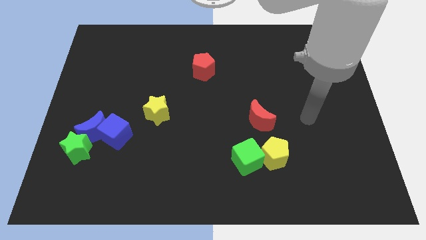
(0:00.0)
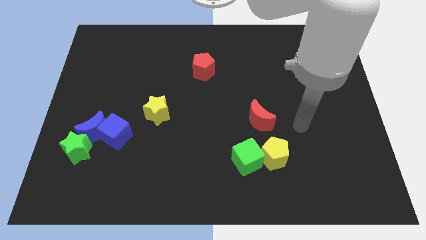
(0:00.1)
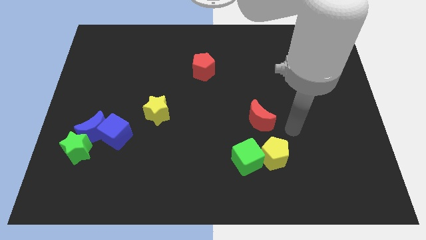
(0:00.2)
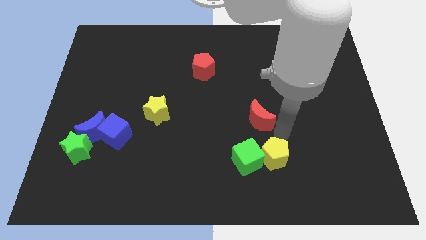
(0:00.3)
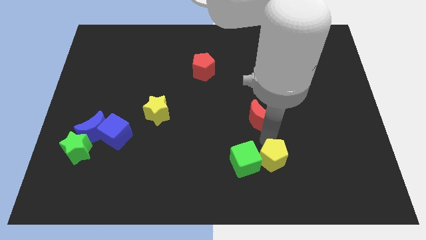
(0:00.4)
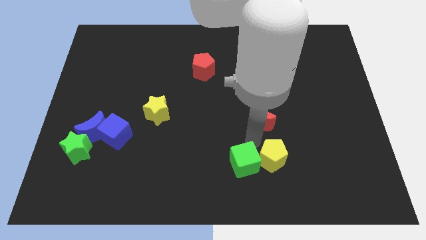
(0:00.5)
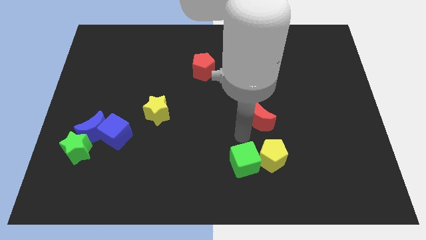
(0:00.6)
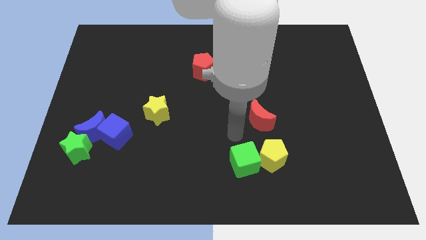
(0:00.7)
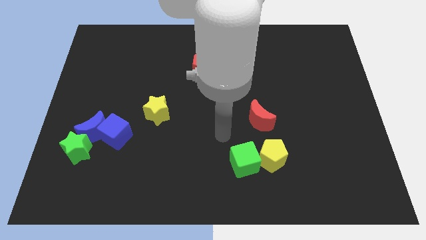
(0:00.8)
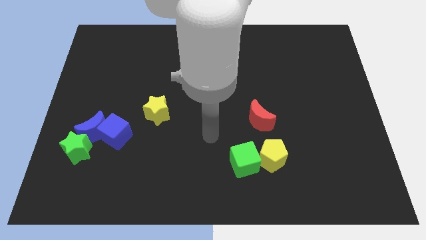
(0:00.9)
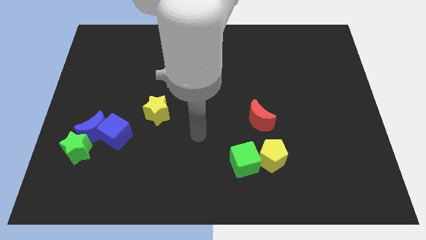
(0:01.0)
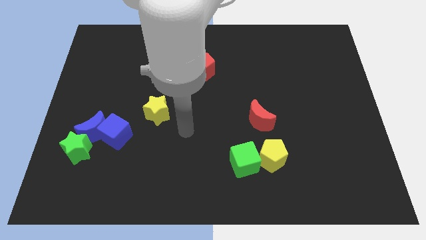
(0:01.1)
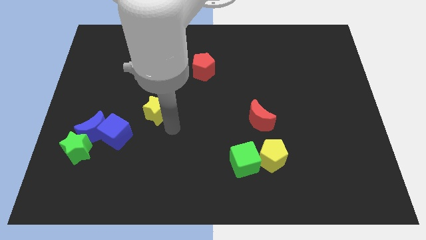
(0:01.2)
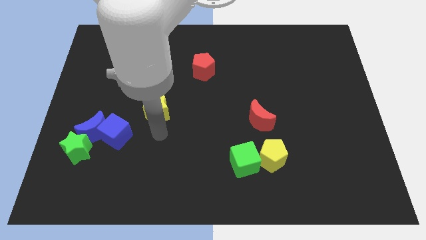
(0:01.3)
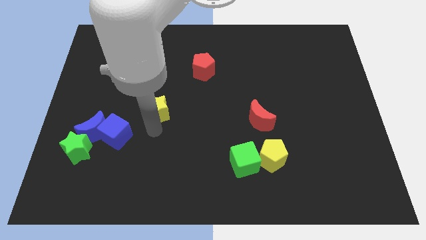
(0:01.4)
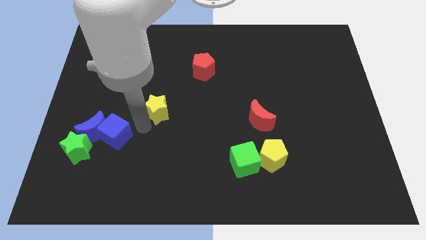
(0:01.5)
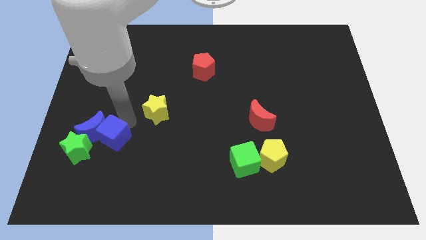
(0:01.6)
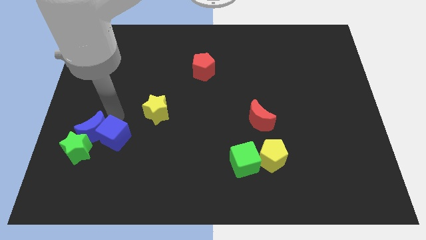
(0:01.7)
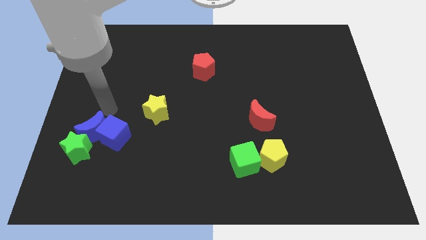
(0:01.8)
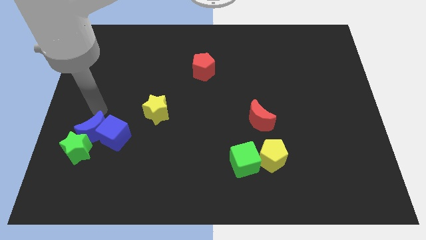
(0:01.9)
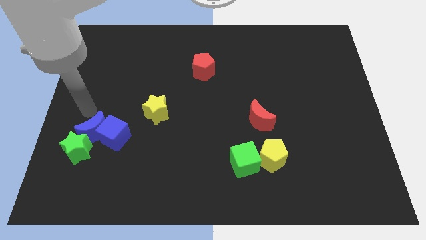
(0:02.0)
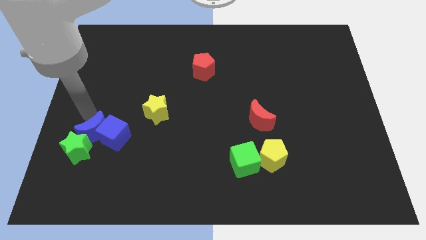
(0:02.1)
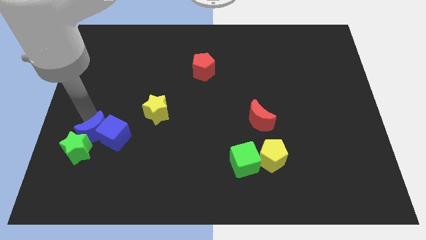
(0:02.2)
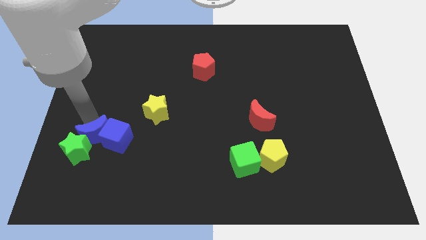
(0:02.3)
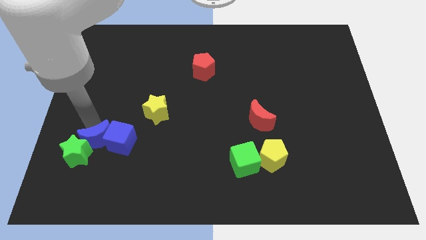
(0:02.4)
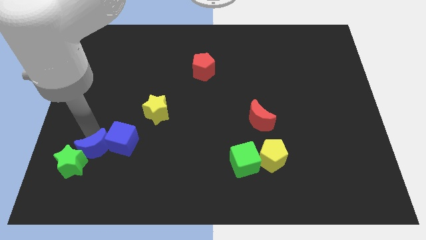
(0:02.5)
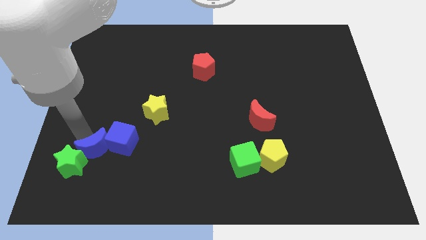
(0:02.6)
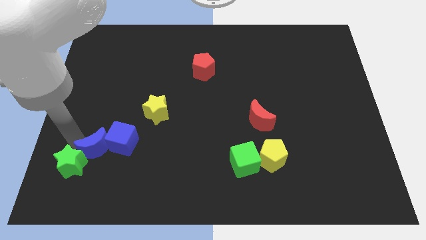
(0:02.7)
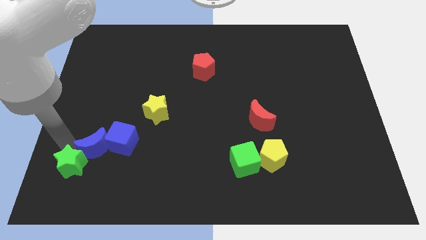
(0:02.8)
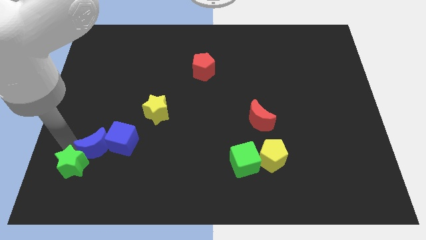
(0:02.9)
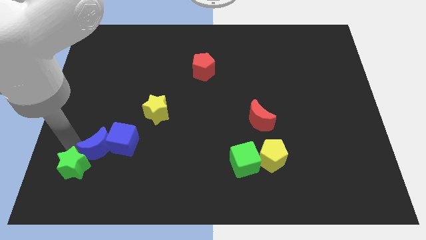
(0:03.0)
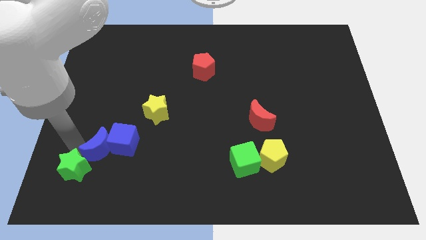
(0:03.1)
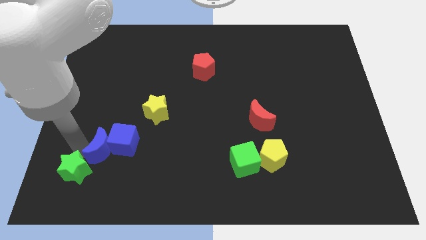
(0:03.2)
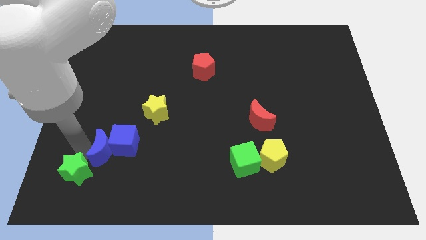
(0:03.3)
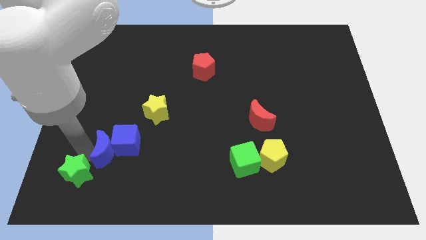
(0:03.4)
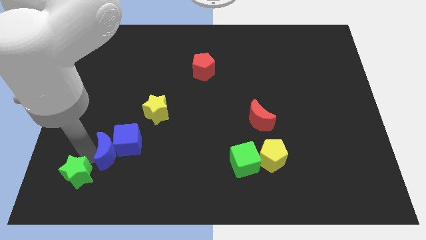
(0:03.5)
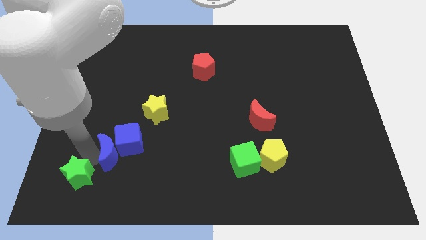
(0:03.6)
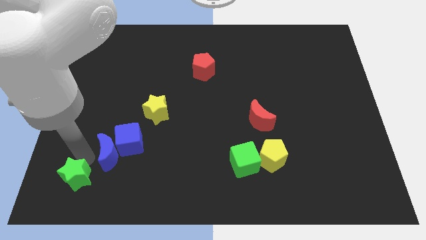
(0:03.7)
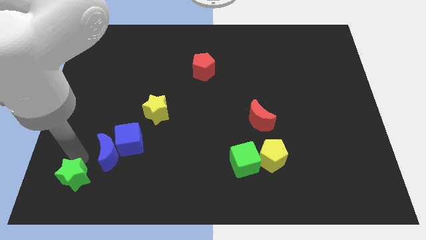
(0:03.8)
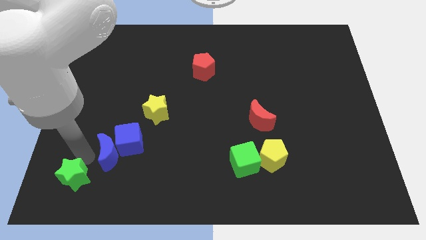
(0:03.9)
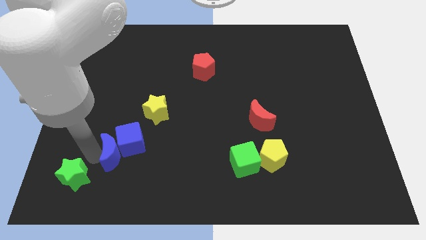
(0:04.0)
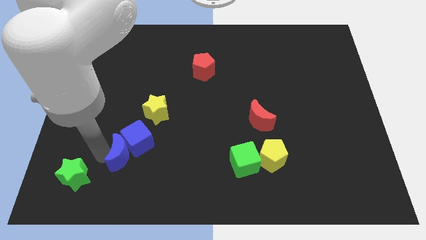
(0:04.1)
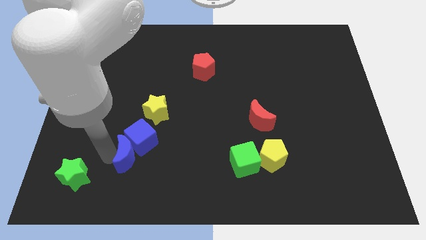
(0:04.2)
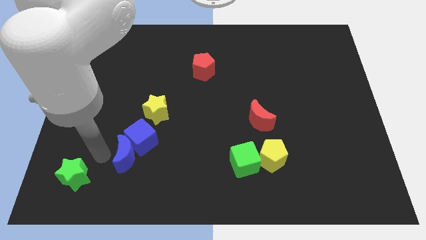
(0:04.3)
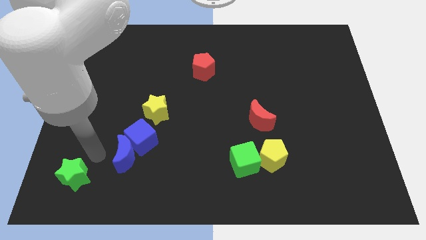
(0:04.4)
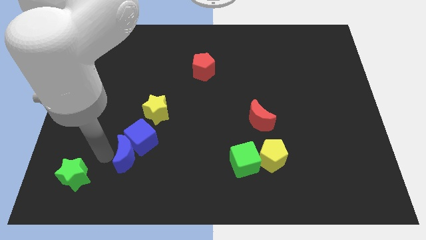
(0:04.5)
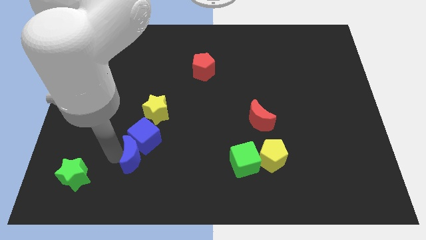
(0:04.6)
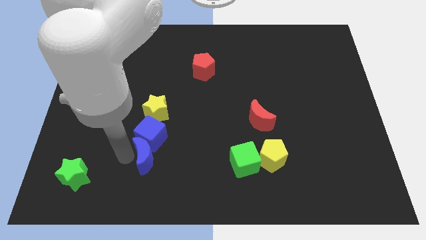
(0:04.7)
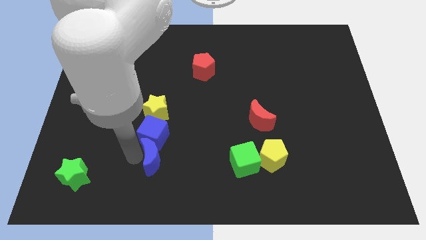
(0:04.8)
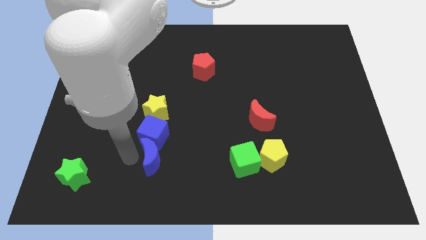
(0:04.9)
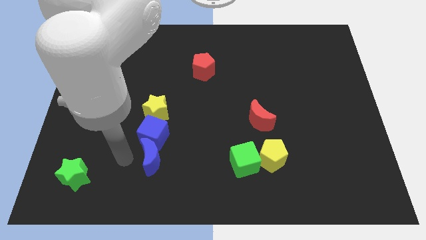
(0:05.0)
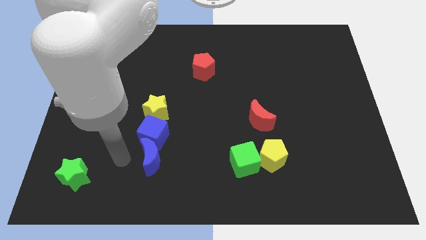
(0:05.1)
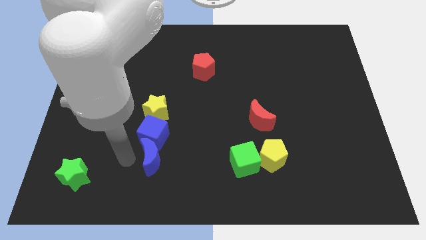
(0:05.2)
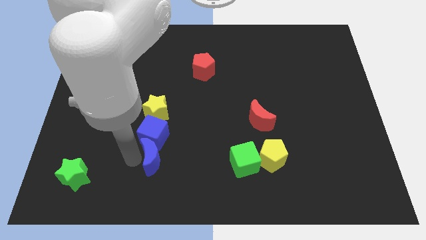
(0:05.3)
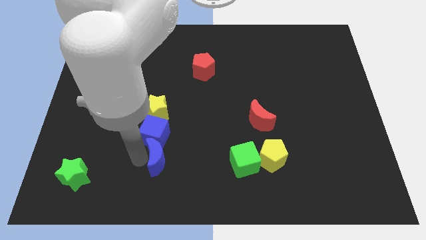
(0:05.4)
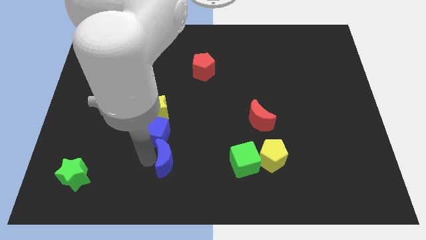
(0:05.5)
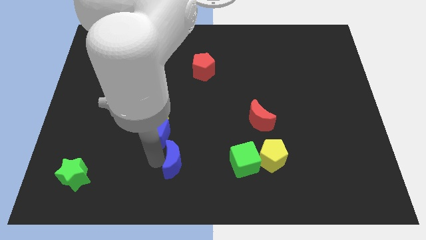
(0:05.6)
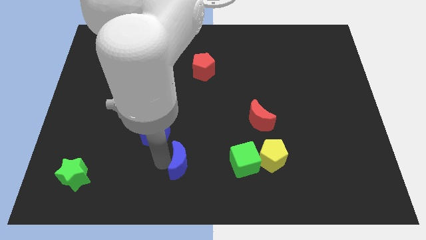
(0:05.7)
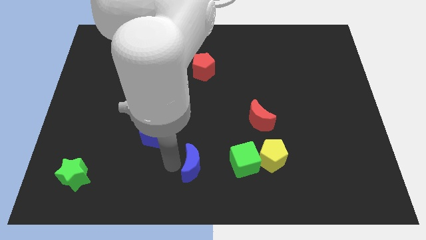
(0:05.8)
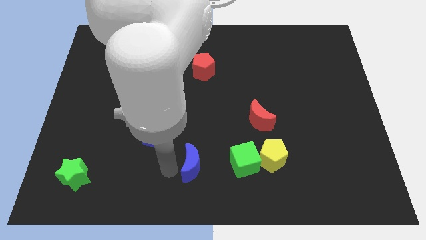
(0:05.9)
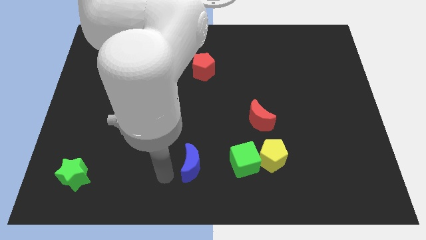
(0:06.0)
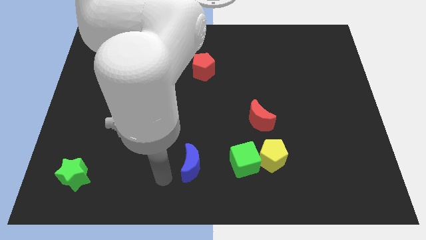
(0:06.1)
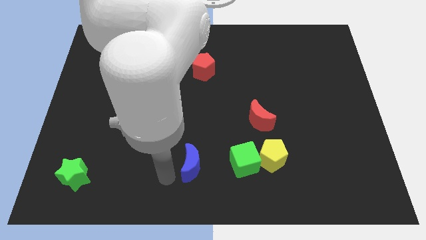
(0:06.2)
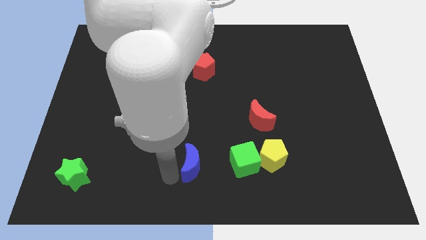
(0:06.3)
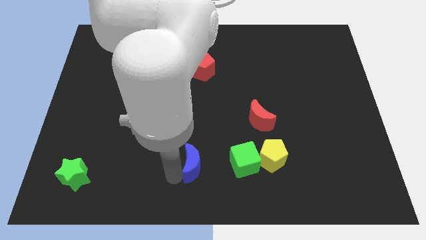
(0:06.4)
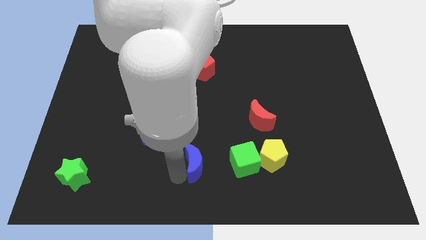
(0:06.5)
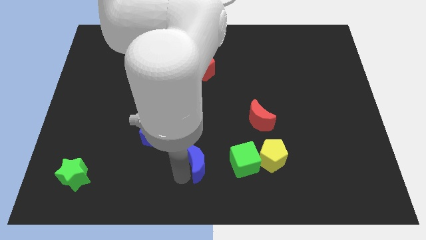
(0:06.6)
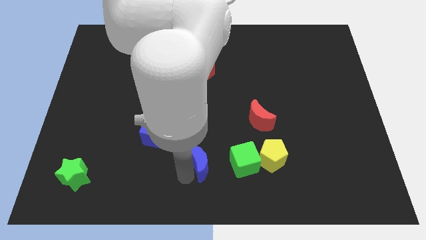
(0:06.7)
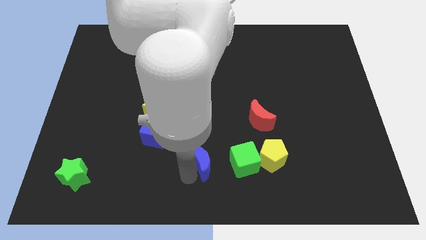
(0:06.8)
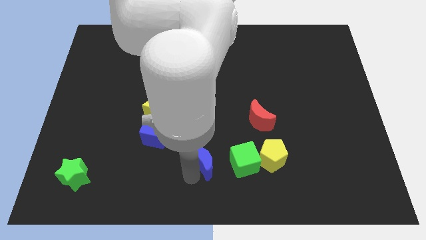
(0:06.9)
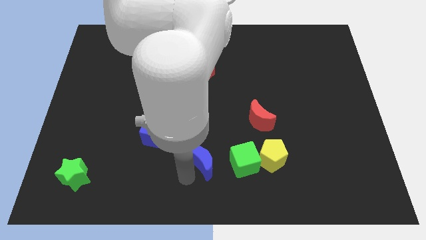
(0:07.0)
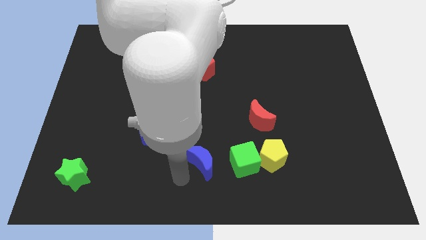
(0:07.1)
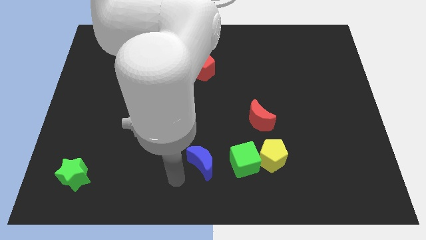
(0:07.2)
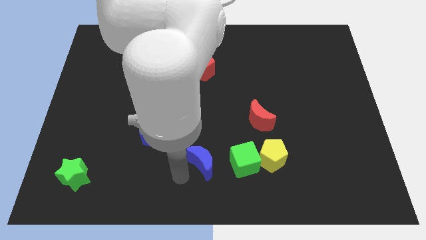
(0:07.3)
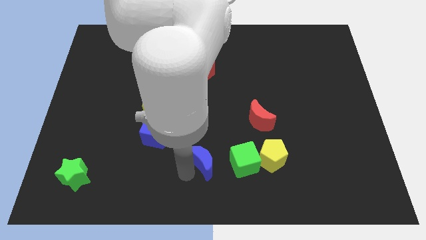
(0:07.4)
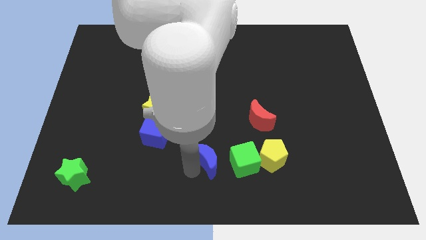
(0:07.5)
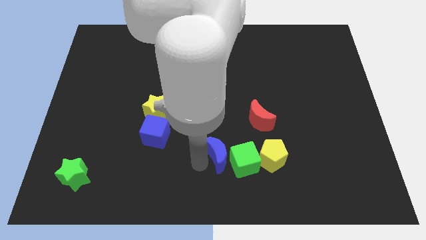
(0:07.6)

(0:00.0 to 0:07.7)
slide the blue moon to the green cube
